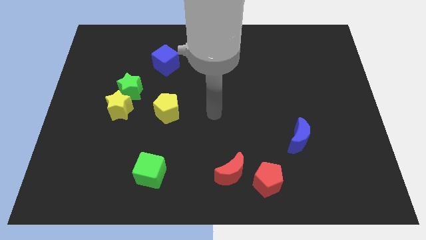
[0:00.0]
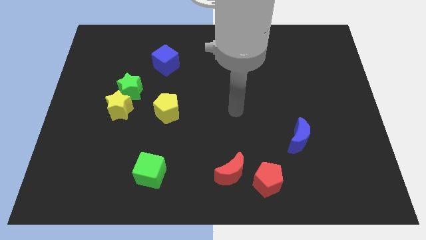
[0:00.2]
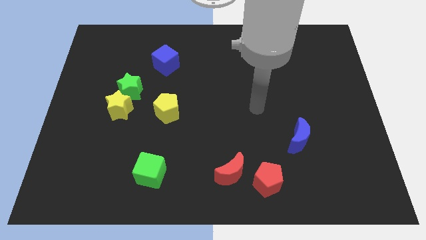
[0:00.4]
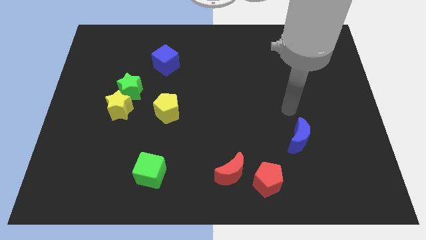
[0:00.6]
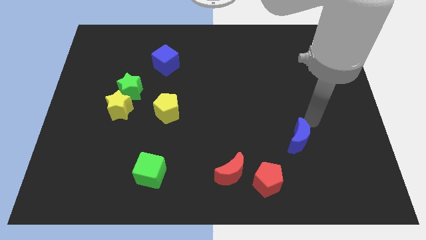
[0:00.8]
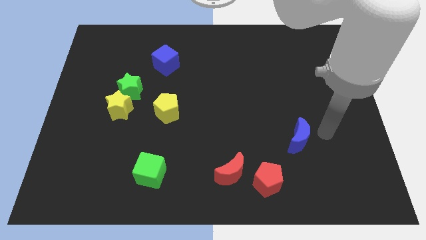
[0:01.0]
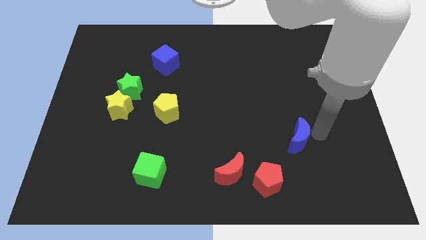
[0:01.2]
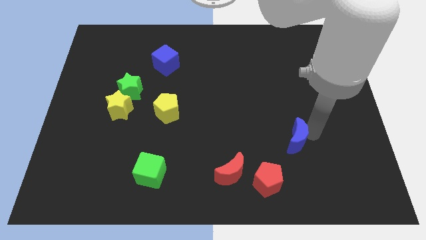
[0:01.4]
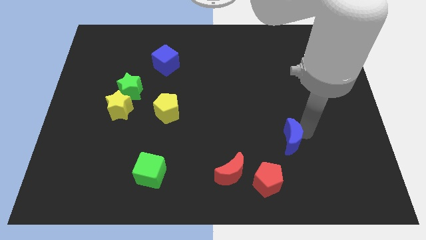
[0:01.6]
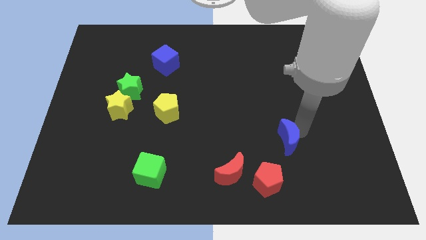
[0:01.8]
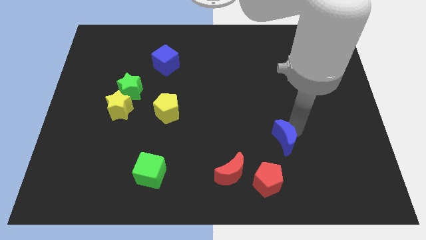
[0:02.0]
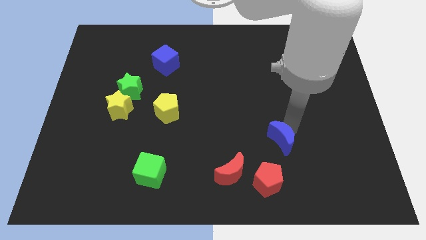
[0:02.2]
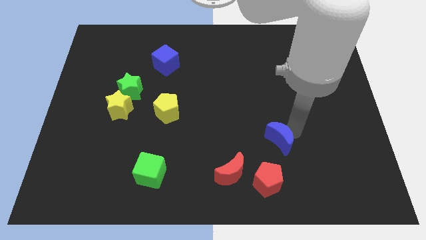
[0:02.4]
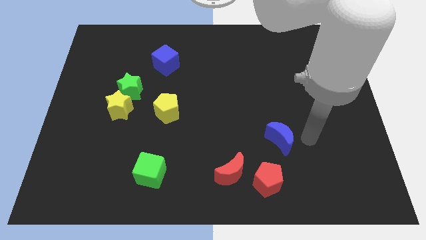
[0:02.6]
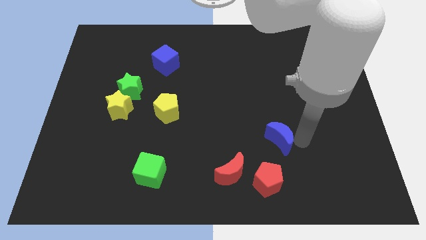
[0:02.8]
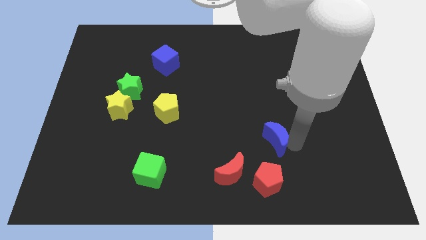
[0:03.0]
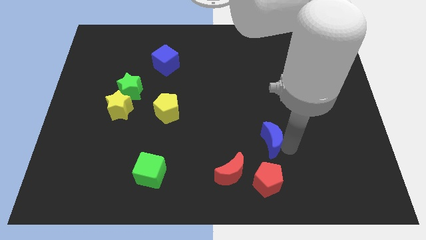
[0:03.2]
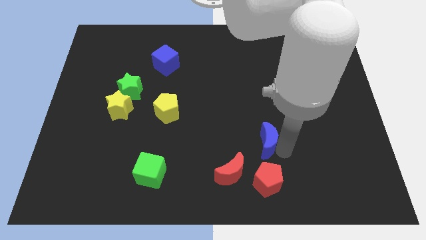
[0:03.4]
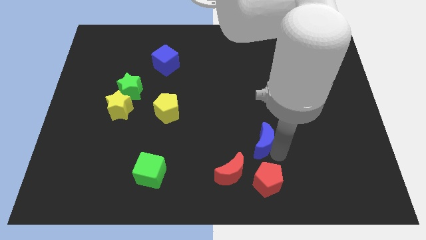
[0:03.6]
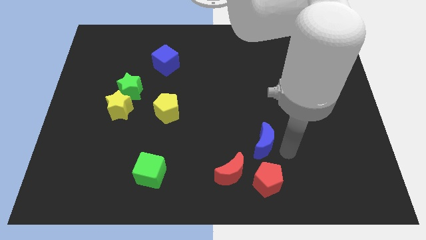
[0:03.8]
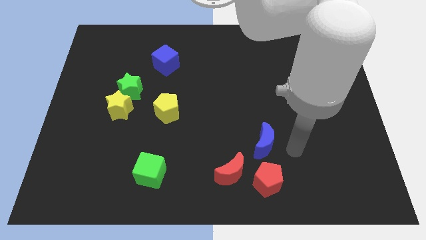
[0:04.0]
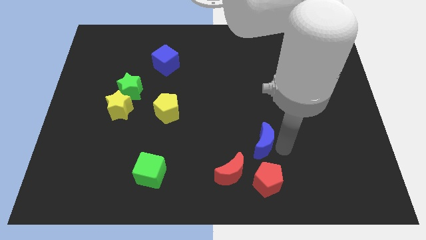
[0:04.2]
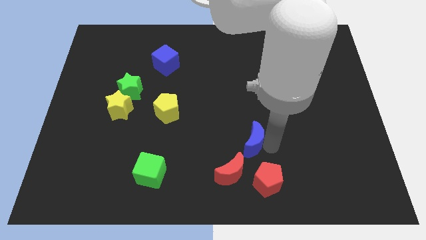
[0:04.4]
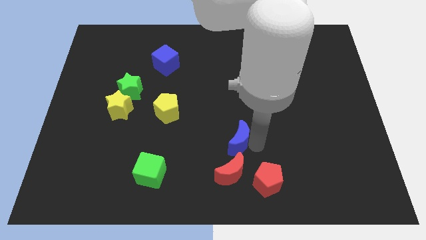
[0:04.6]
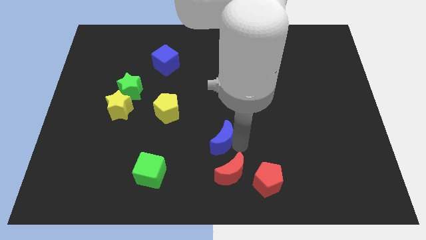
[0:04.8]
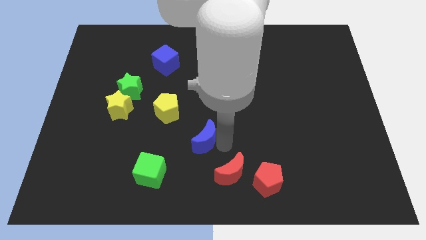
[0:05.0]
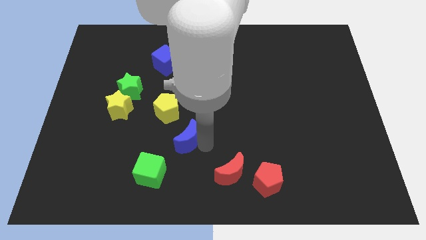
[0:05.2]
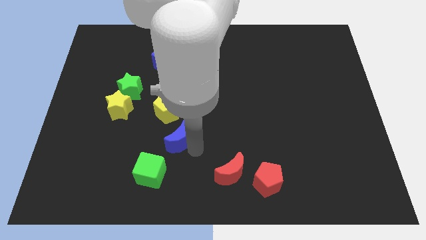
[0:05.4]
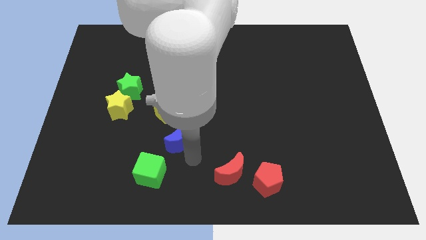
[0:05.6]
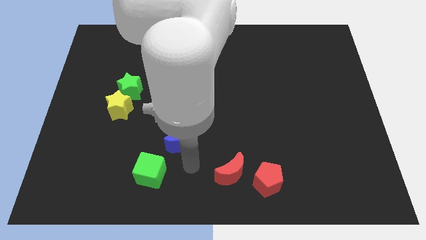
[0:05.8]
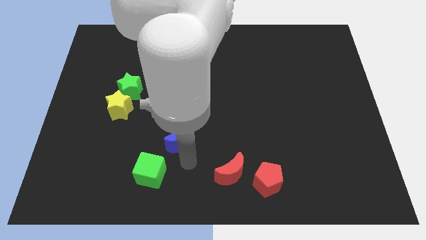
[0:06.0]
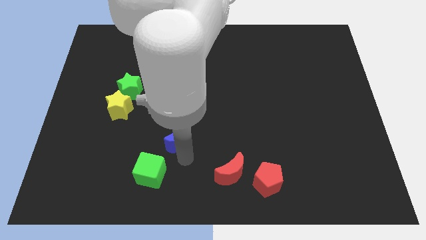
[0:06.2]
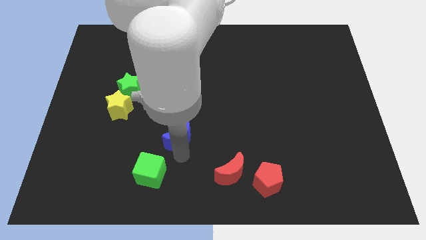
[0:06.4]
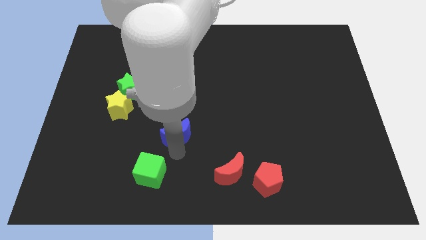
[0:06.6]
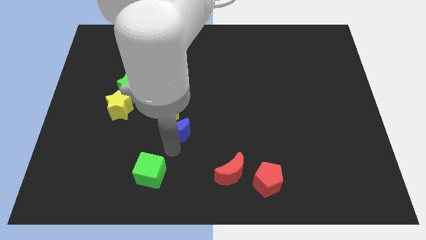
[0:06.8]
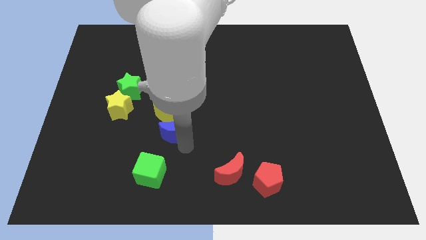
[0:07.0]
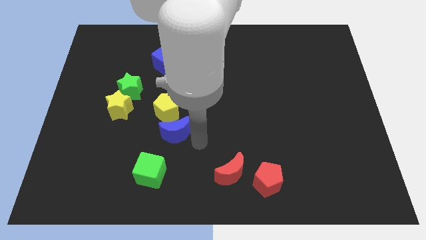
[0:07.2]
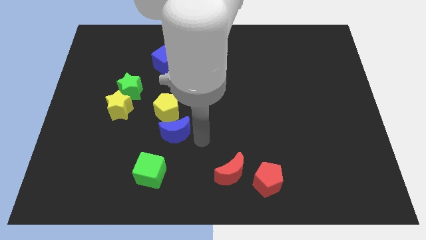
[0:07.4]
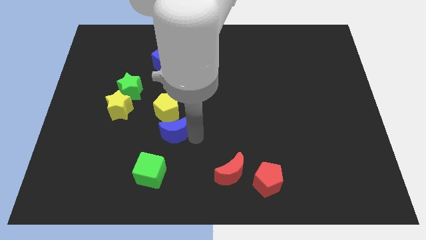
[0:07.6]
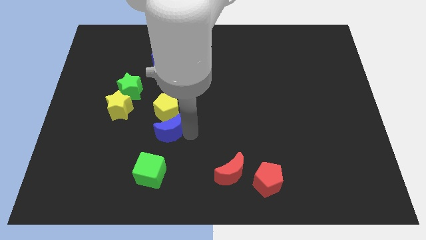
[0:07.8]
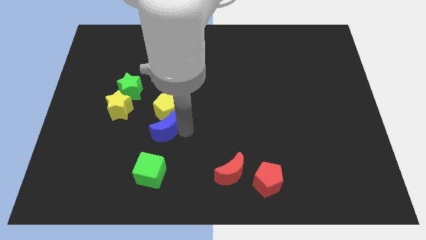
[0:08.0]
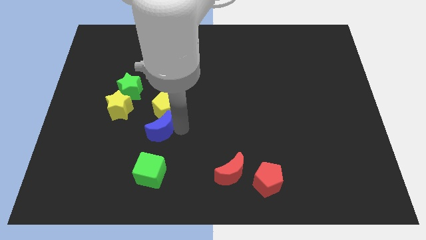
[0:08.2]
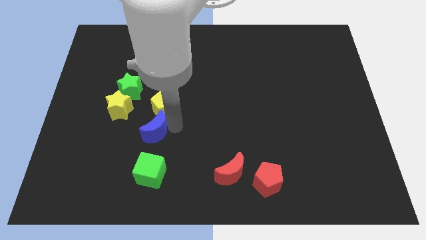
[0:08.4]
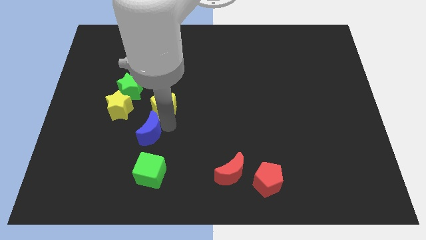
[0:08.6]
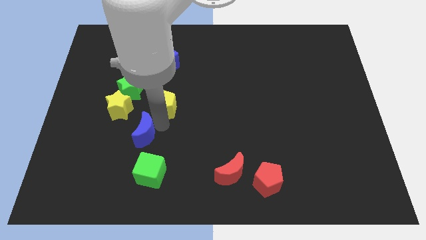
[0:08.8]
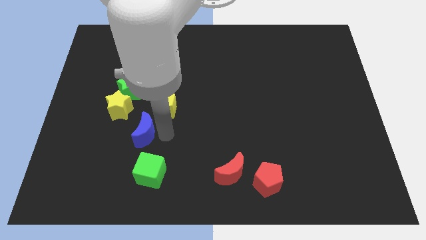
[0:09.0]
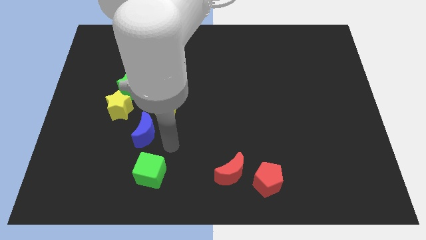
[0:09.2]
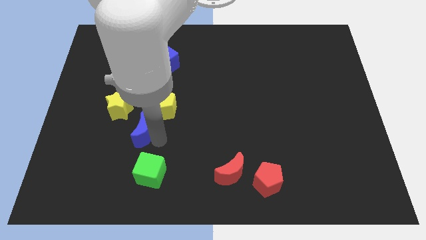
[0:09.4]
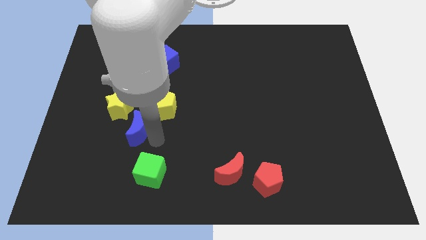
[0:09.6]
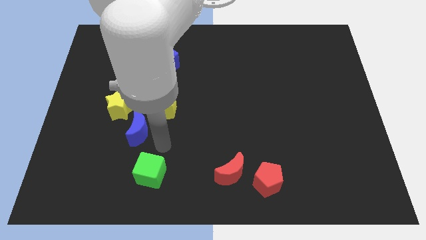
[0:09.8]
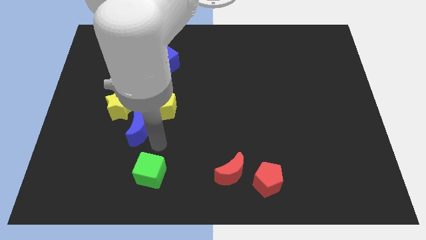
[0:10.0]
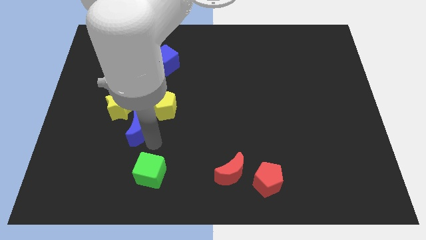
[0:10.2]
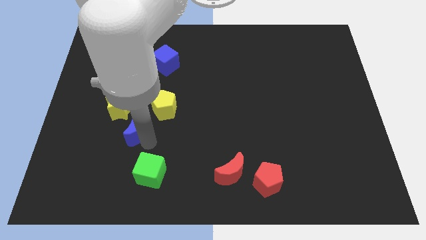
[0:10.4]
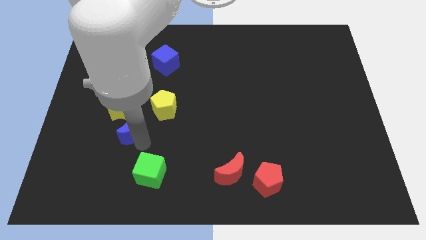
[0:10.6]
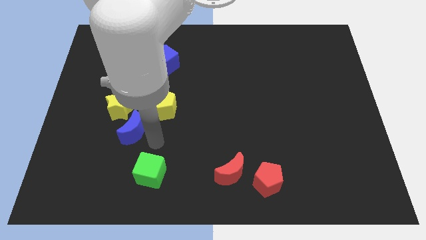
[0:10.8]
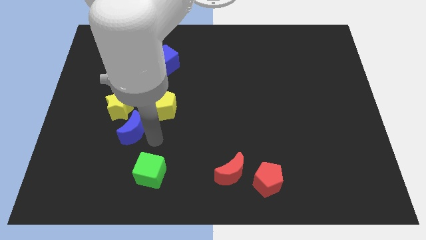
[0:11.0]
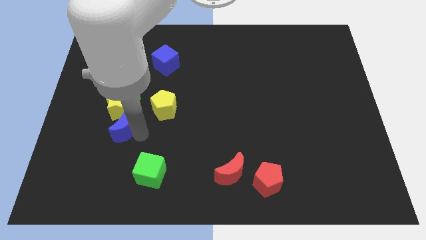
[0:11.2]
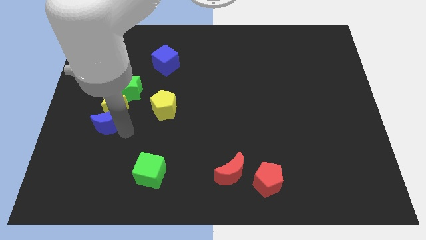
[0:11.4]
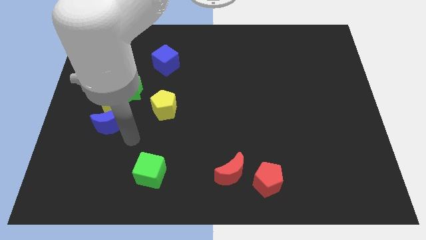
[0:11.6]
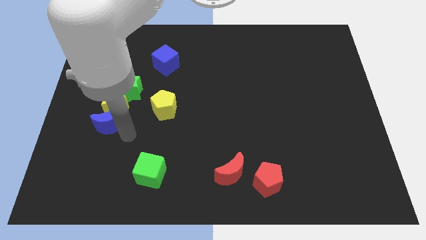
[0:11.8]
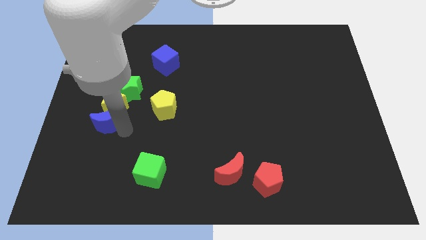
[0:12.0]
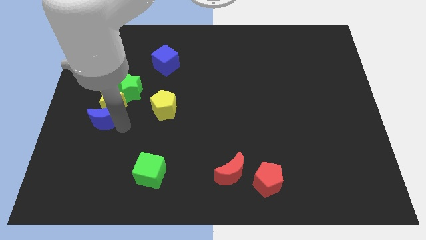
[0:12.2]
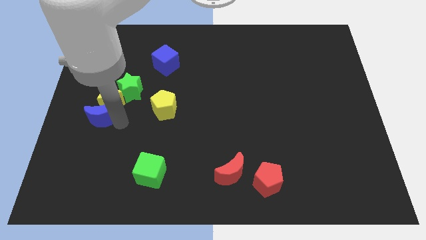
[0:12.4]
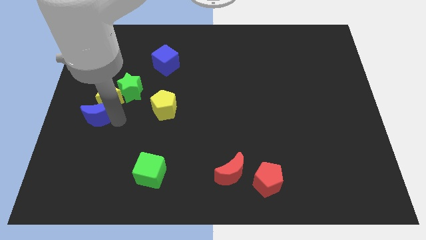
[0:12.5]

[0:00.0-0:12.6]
move the blue moon to the center left

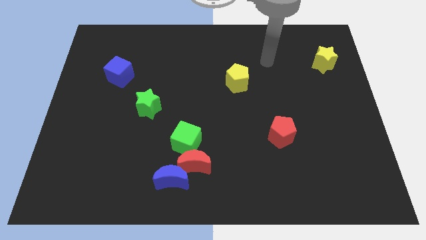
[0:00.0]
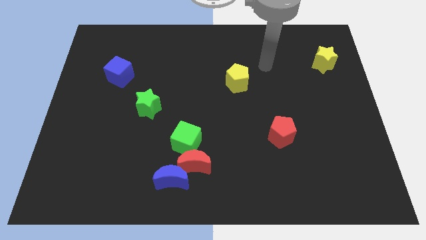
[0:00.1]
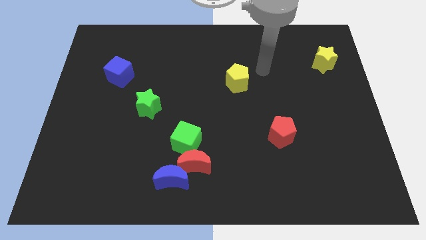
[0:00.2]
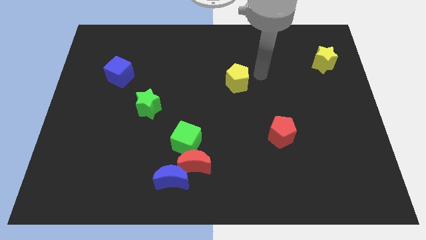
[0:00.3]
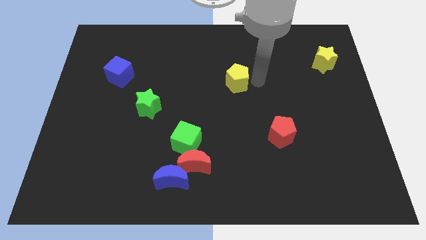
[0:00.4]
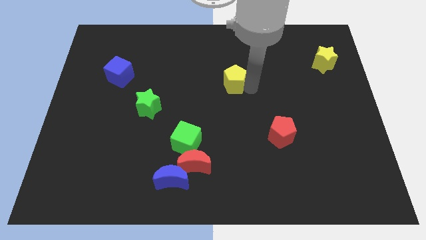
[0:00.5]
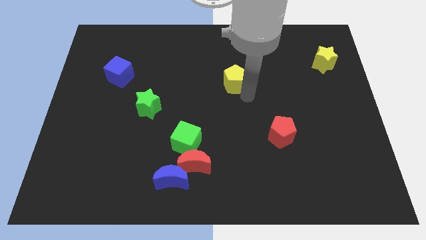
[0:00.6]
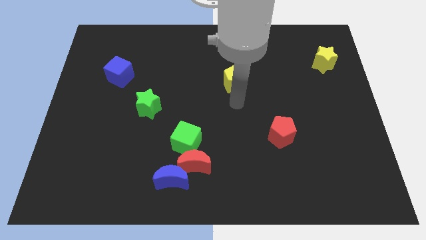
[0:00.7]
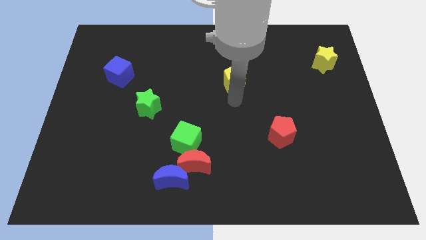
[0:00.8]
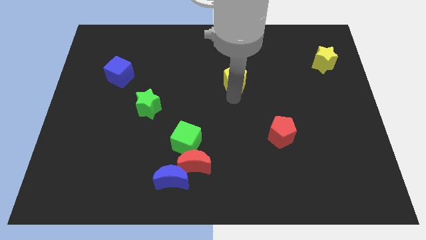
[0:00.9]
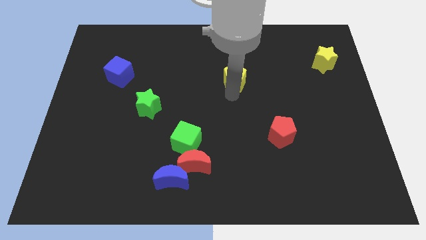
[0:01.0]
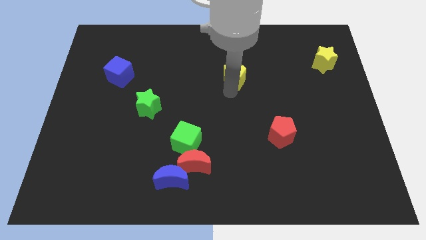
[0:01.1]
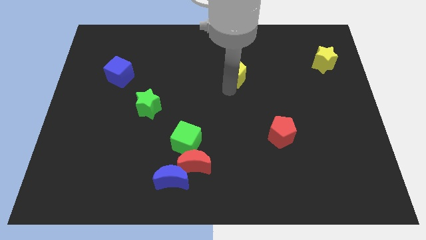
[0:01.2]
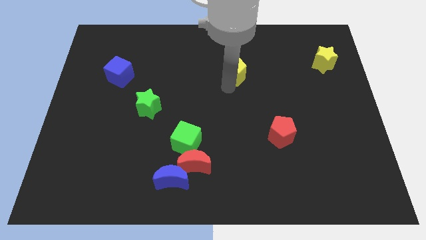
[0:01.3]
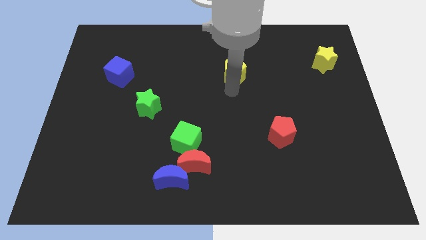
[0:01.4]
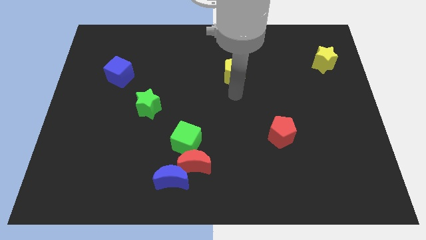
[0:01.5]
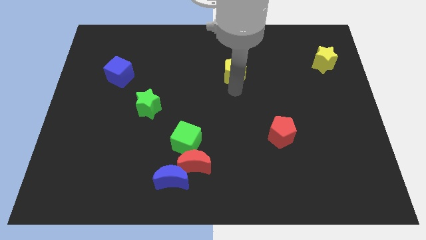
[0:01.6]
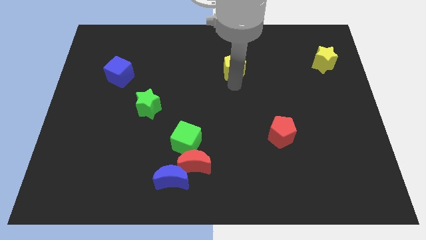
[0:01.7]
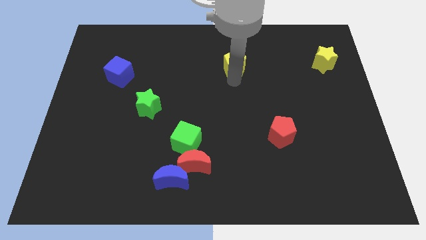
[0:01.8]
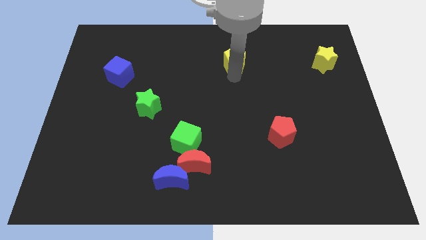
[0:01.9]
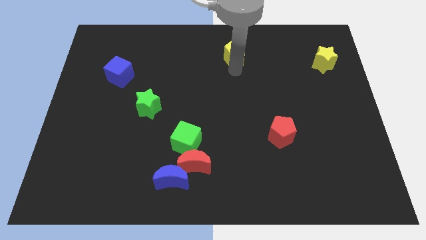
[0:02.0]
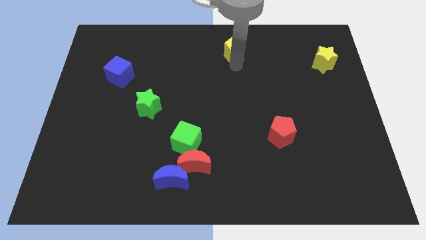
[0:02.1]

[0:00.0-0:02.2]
move the yellow pentagon to the top side
